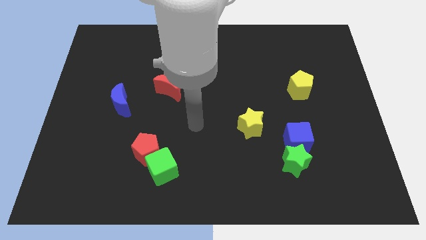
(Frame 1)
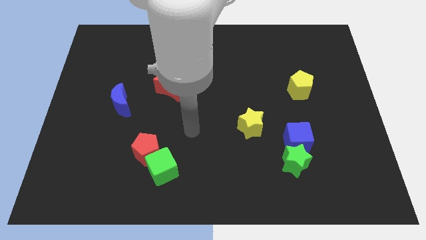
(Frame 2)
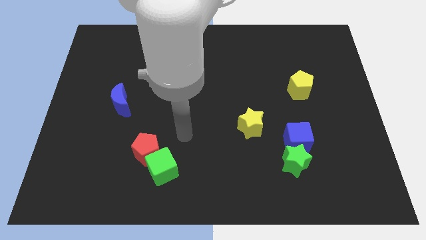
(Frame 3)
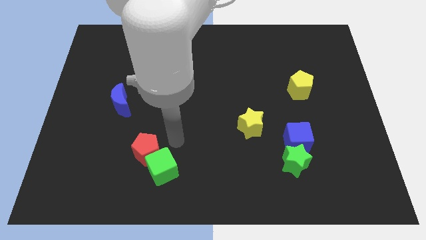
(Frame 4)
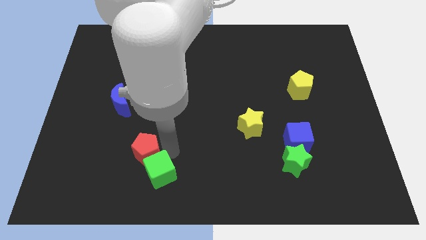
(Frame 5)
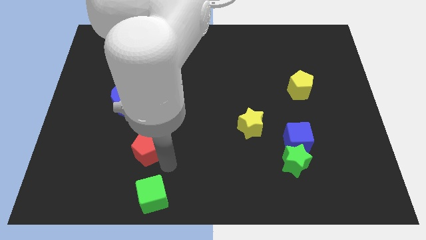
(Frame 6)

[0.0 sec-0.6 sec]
pull the red pentagon apart from the green cube

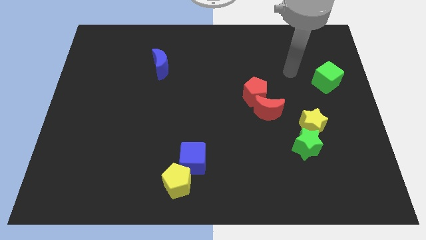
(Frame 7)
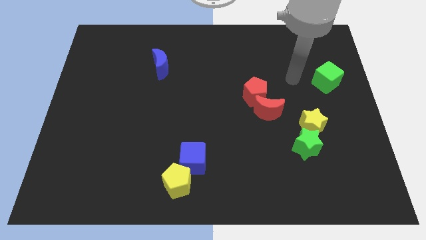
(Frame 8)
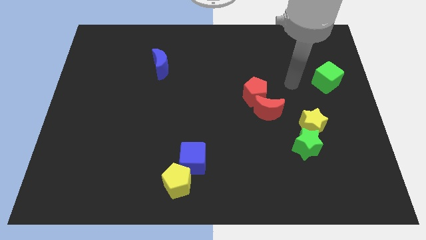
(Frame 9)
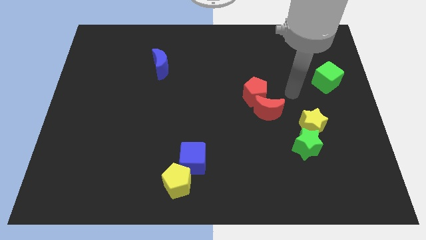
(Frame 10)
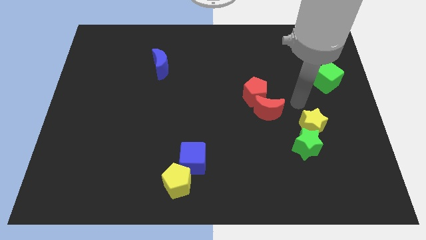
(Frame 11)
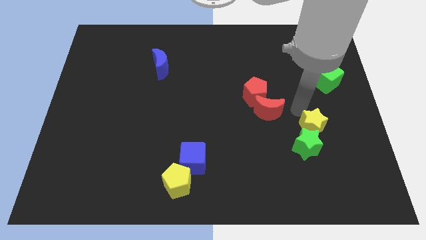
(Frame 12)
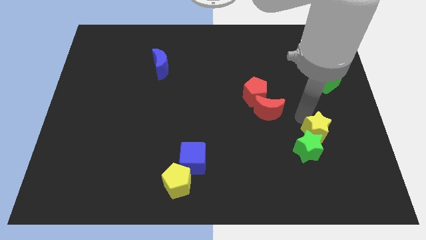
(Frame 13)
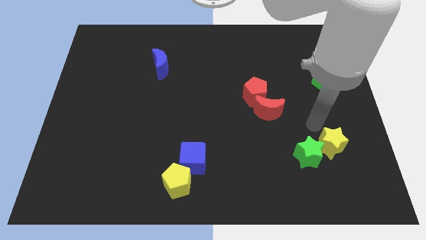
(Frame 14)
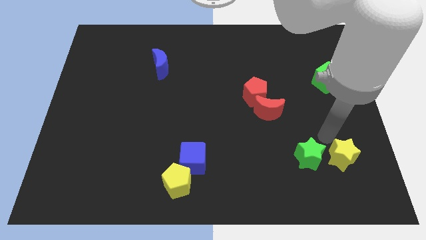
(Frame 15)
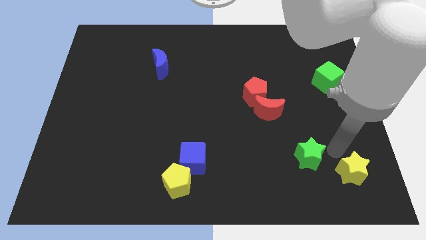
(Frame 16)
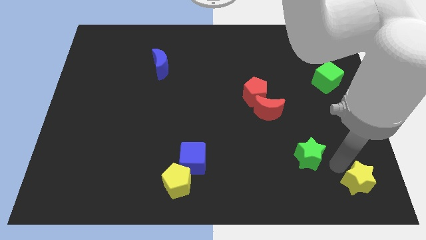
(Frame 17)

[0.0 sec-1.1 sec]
move the green star away from the yellow star

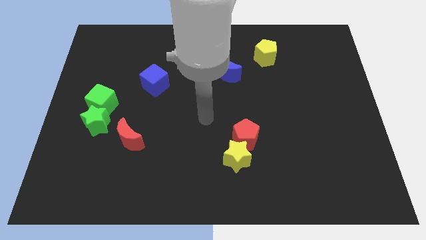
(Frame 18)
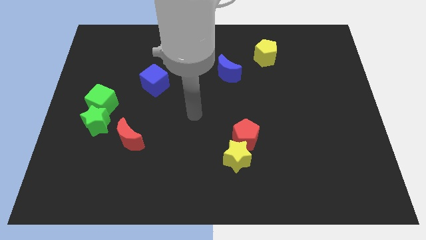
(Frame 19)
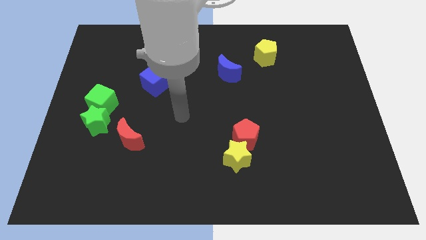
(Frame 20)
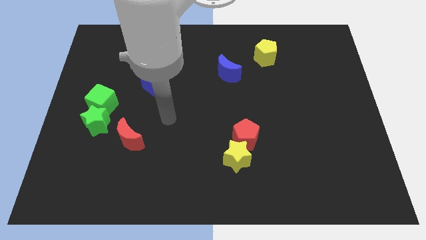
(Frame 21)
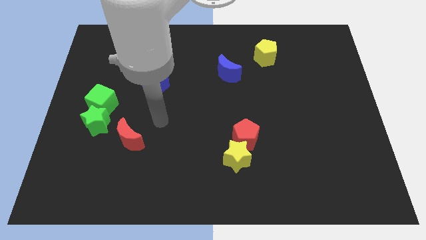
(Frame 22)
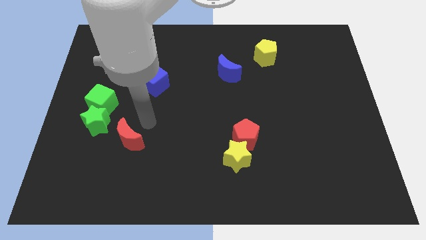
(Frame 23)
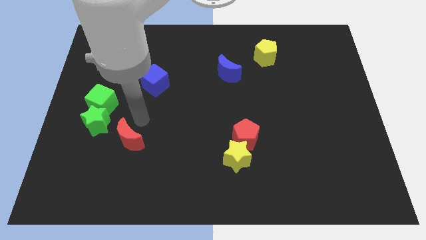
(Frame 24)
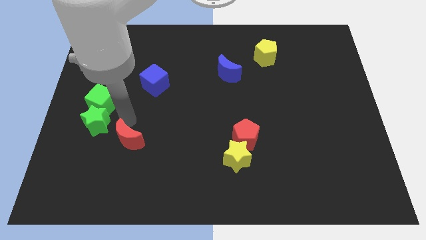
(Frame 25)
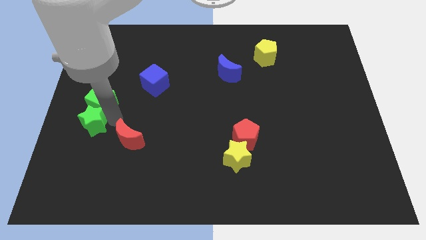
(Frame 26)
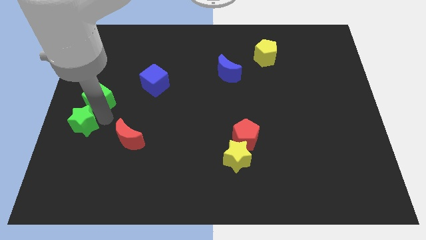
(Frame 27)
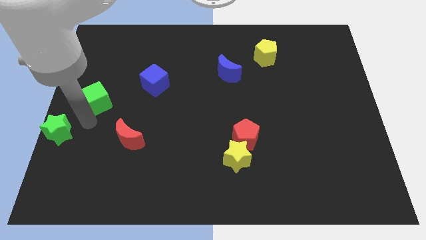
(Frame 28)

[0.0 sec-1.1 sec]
pull the green cube apart from the green star

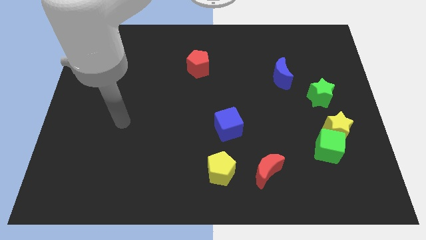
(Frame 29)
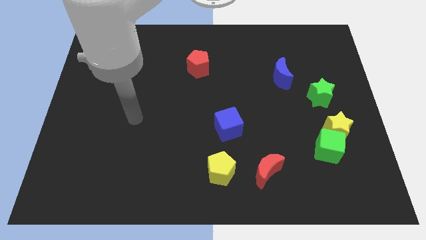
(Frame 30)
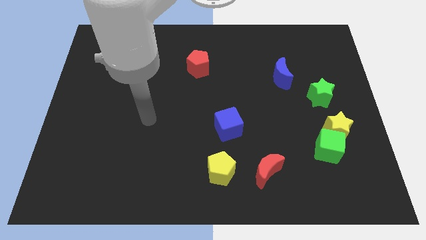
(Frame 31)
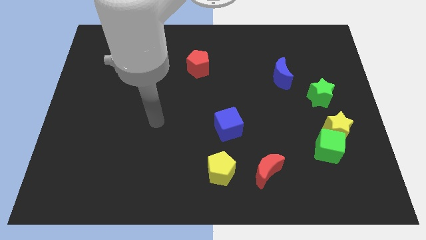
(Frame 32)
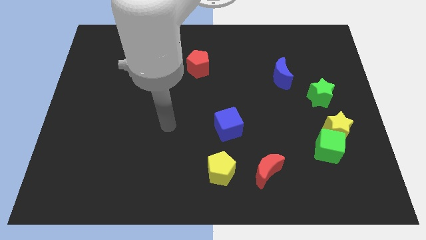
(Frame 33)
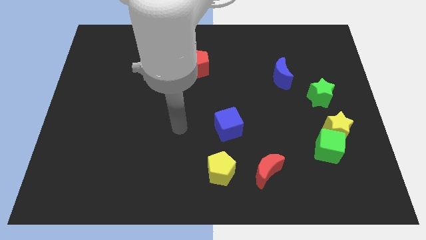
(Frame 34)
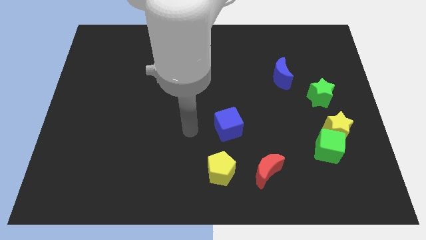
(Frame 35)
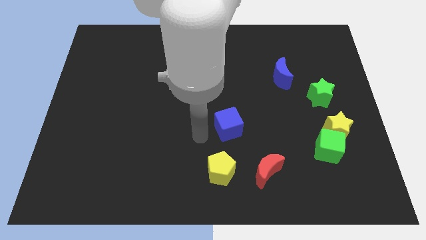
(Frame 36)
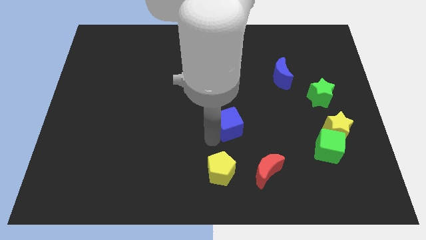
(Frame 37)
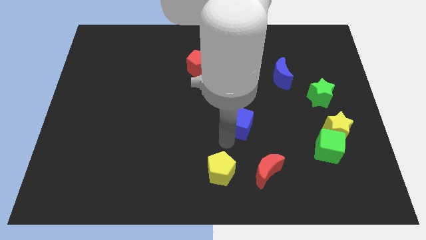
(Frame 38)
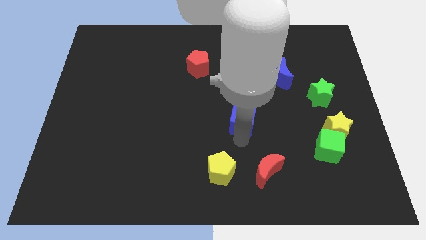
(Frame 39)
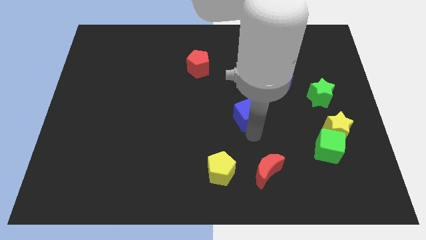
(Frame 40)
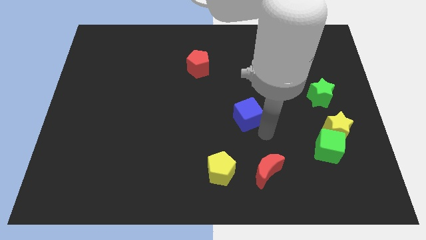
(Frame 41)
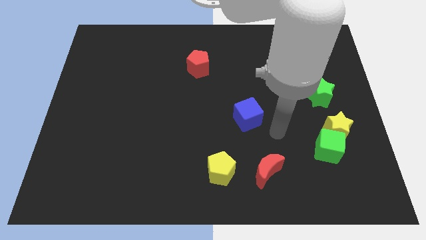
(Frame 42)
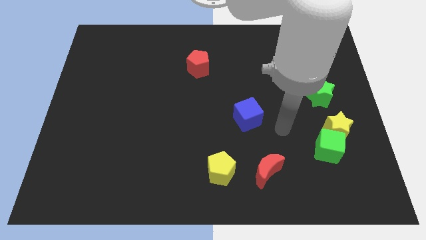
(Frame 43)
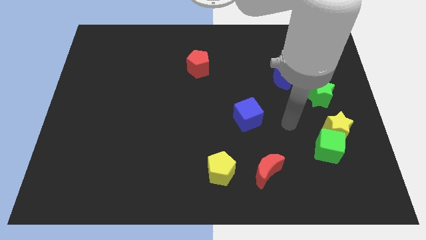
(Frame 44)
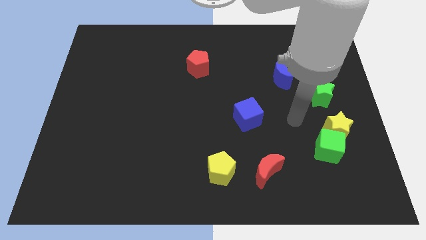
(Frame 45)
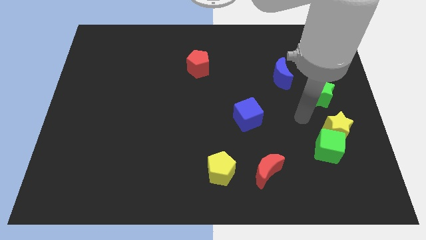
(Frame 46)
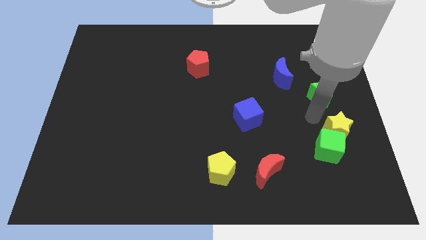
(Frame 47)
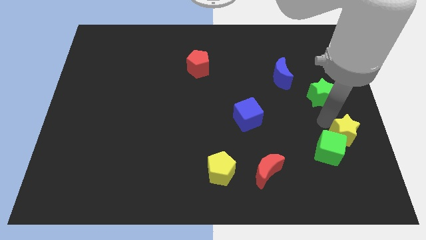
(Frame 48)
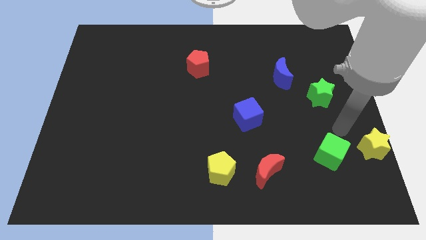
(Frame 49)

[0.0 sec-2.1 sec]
move the green cube away from the yellow star

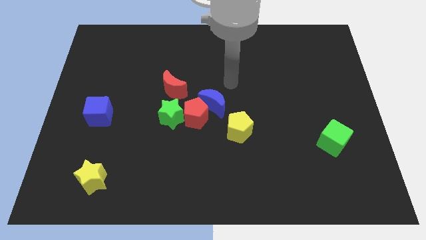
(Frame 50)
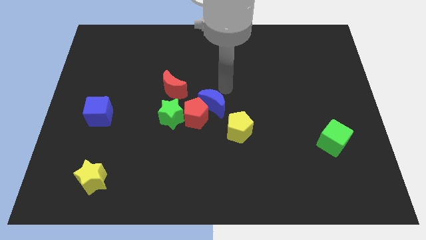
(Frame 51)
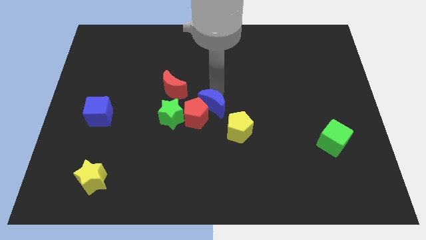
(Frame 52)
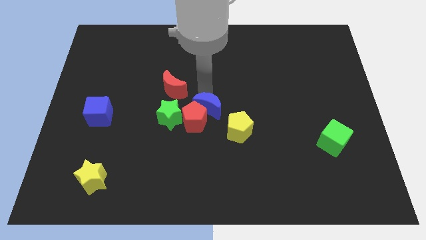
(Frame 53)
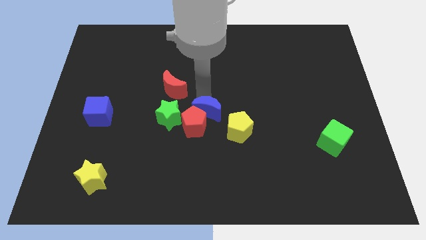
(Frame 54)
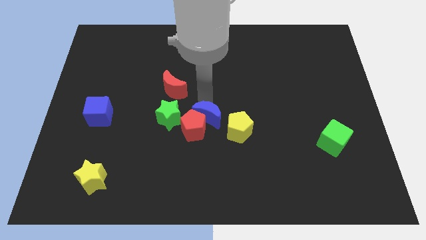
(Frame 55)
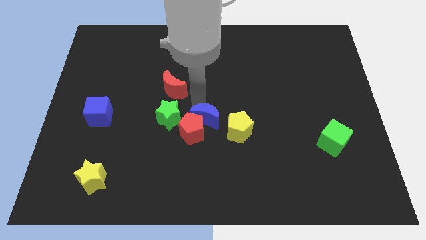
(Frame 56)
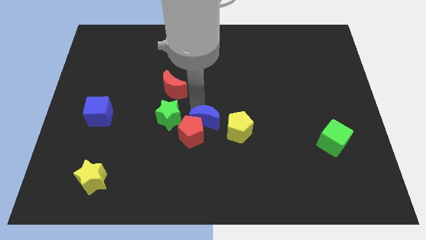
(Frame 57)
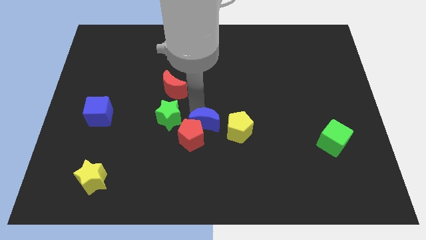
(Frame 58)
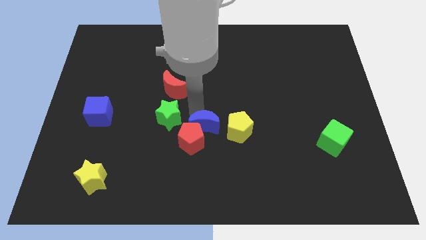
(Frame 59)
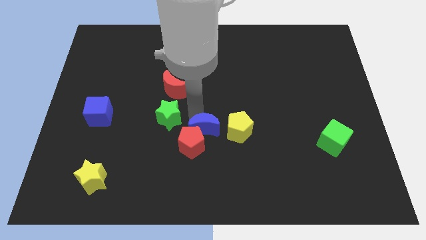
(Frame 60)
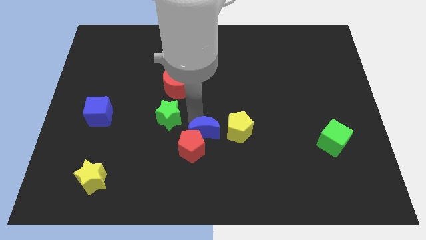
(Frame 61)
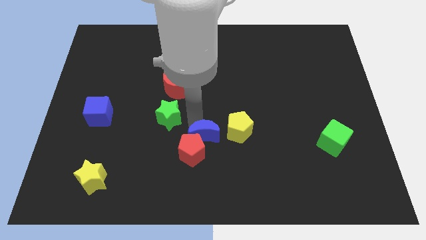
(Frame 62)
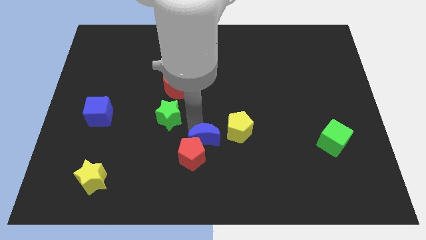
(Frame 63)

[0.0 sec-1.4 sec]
move the red pentagon away from the clump

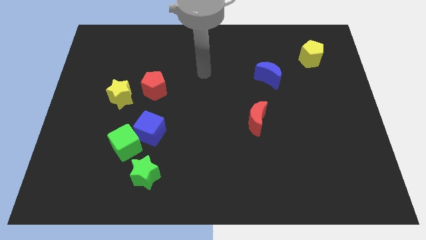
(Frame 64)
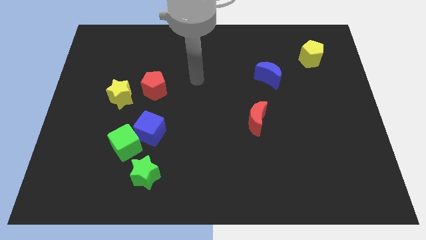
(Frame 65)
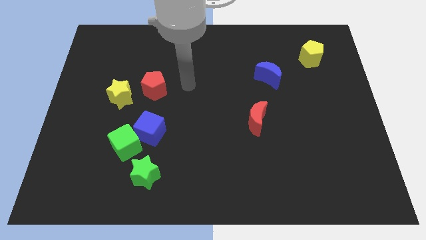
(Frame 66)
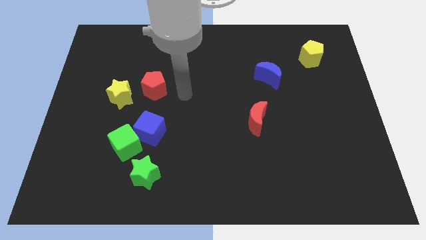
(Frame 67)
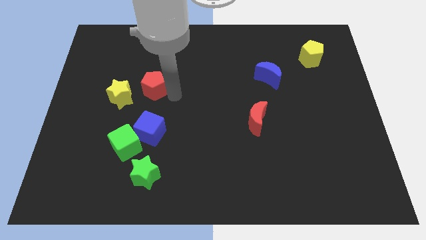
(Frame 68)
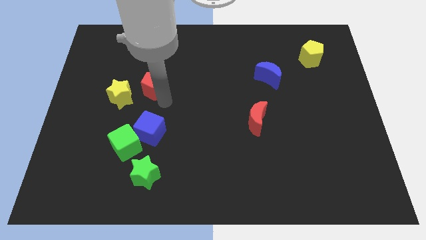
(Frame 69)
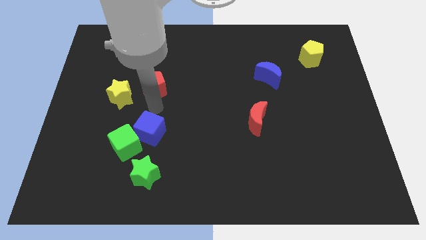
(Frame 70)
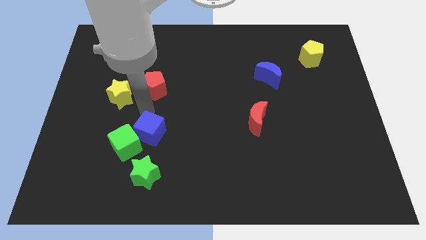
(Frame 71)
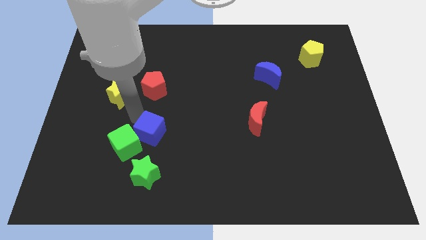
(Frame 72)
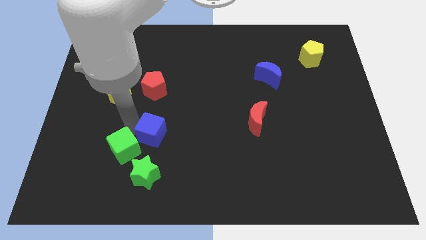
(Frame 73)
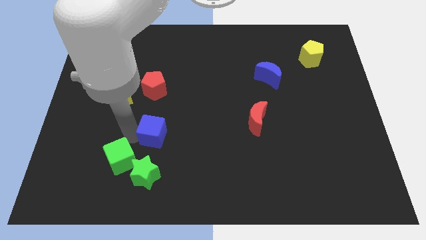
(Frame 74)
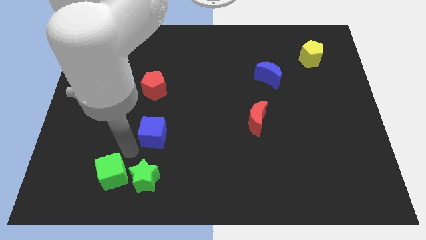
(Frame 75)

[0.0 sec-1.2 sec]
move the blue cube away from the green cube

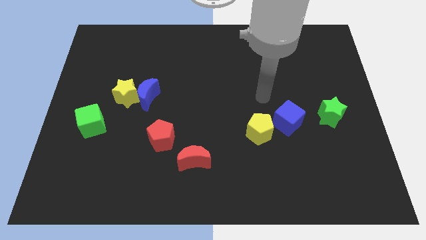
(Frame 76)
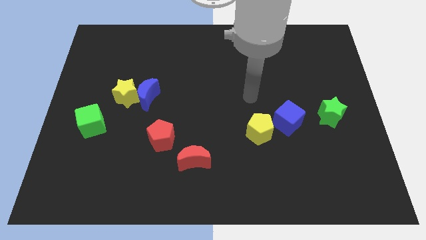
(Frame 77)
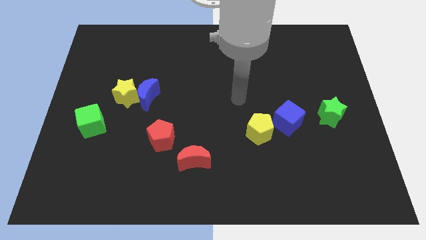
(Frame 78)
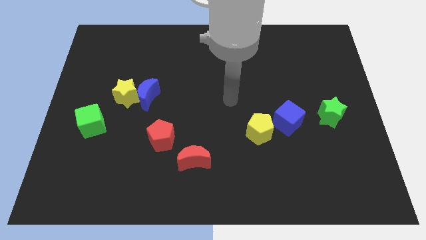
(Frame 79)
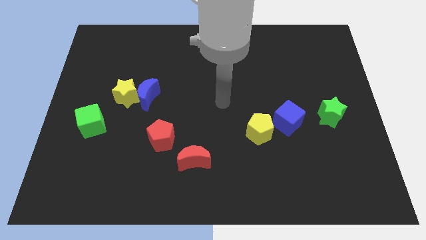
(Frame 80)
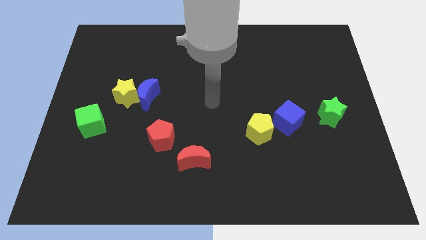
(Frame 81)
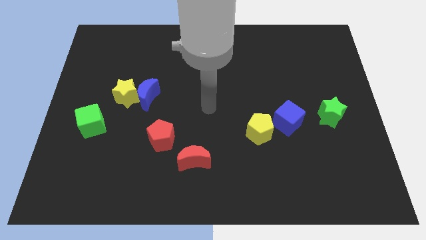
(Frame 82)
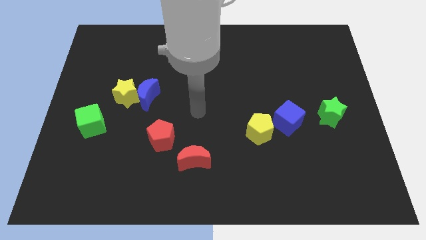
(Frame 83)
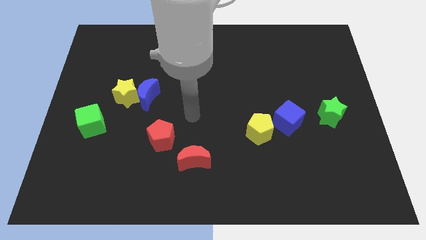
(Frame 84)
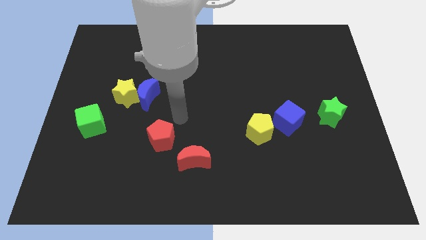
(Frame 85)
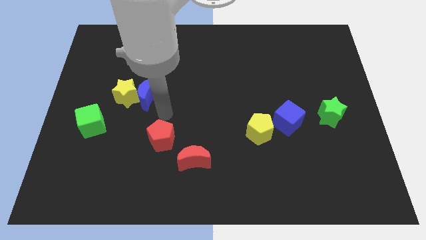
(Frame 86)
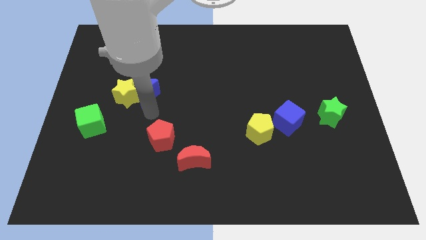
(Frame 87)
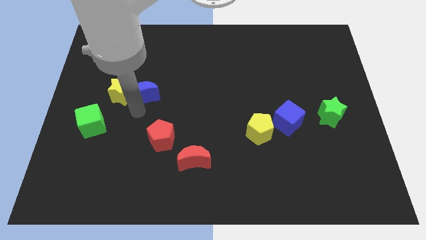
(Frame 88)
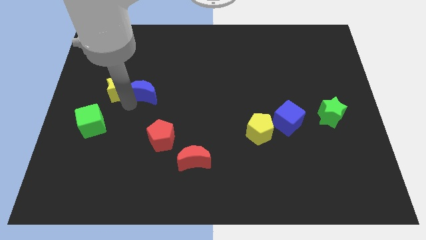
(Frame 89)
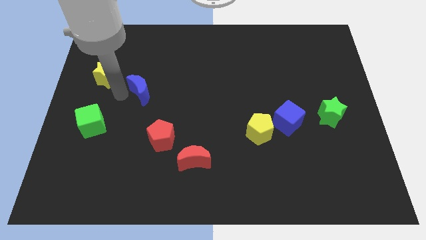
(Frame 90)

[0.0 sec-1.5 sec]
move the blue moon away from the yellow star

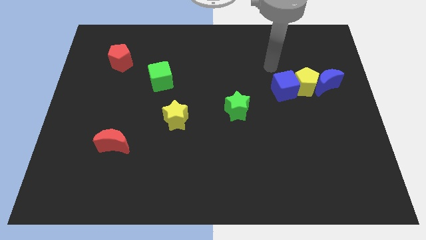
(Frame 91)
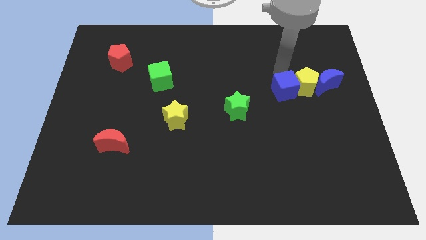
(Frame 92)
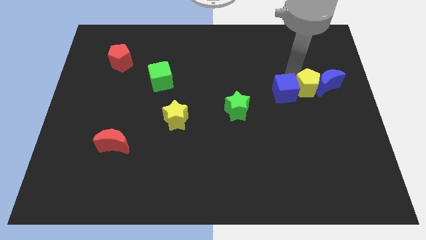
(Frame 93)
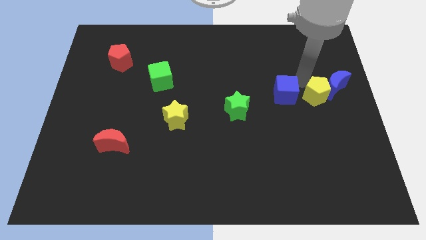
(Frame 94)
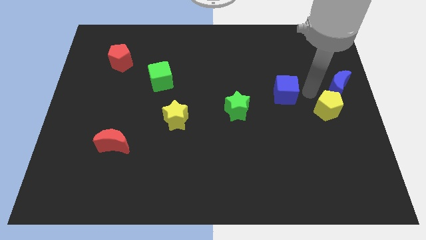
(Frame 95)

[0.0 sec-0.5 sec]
pull the blue cube apart from the yellow pentagon
